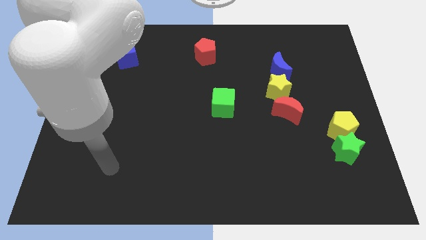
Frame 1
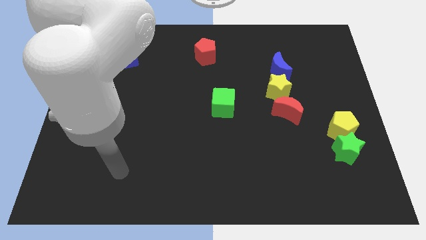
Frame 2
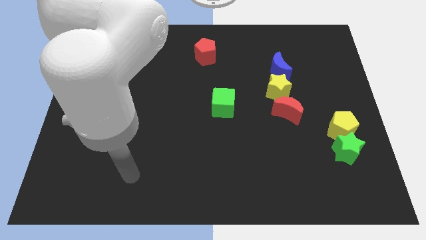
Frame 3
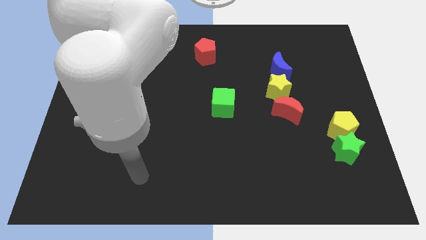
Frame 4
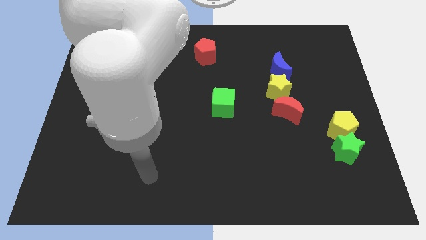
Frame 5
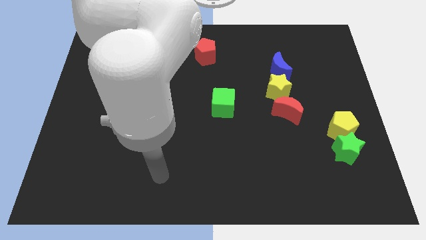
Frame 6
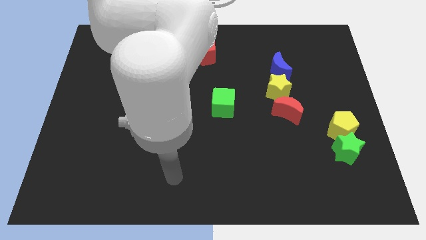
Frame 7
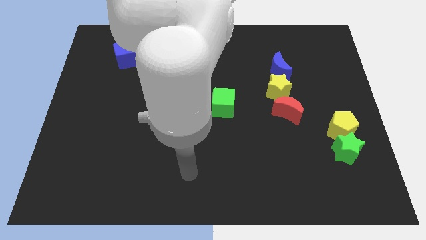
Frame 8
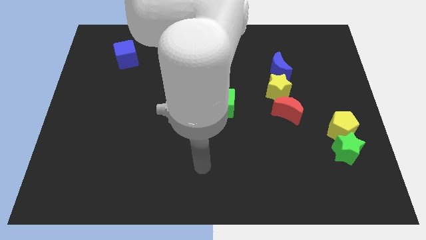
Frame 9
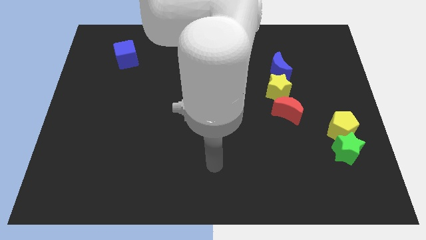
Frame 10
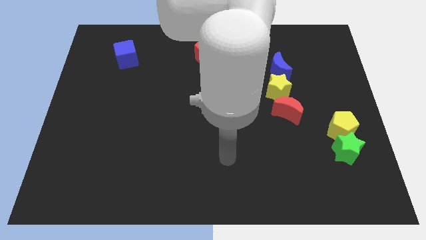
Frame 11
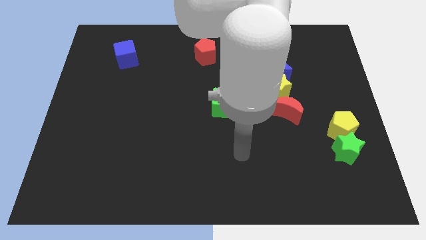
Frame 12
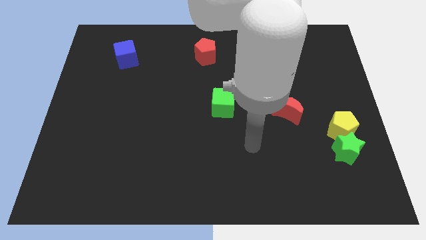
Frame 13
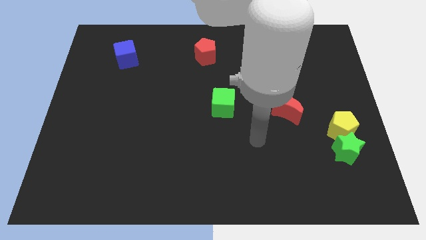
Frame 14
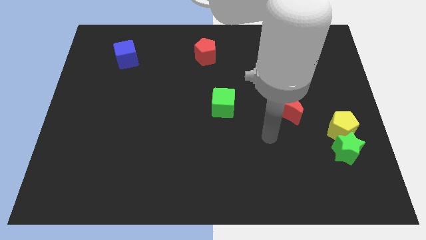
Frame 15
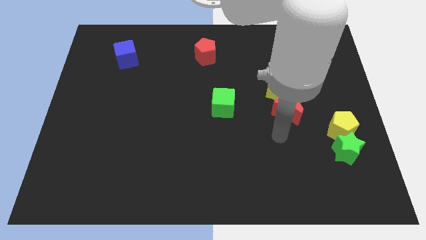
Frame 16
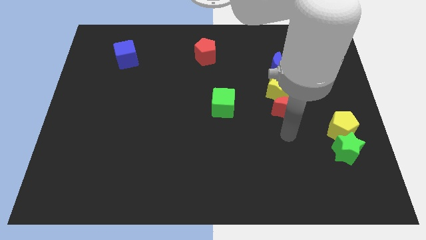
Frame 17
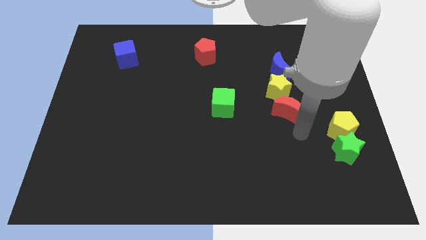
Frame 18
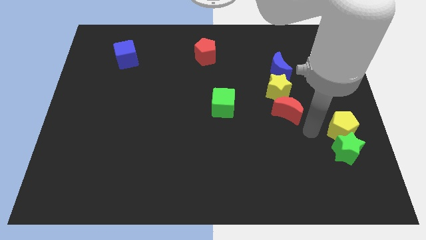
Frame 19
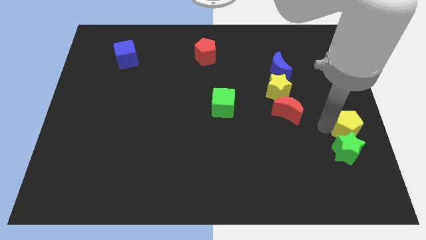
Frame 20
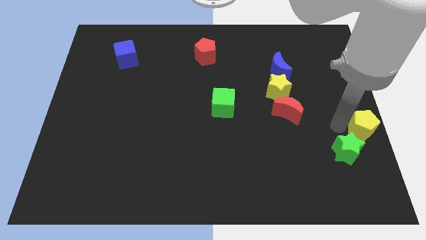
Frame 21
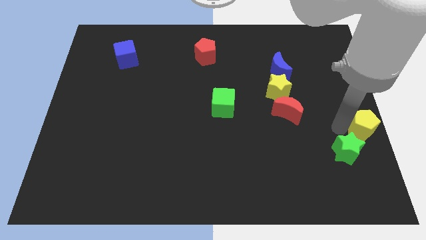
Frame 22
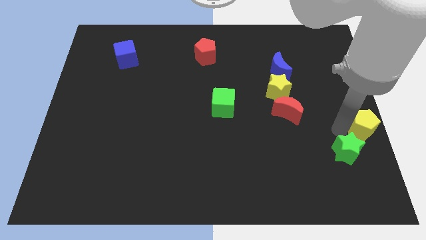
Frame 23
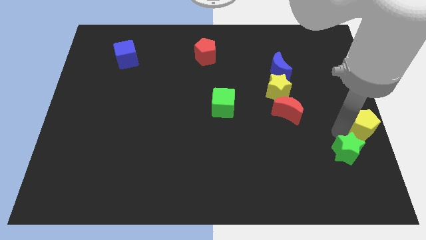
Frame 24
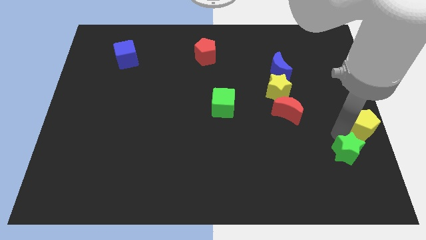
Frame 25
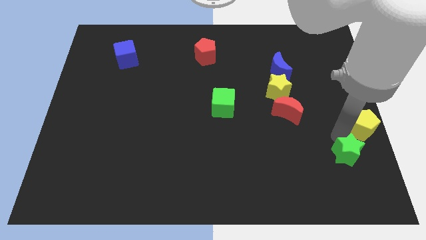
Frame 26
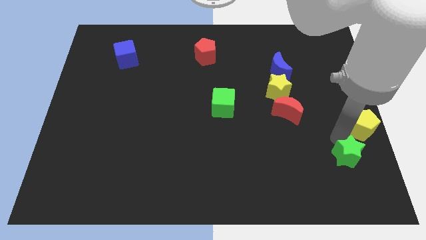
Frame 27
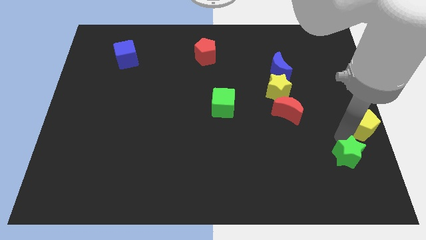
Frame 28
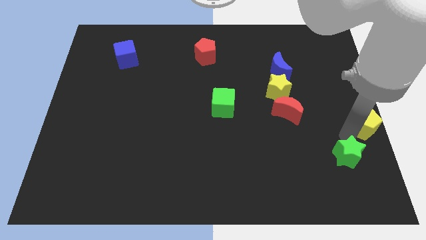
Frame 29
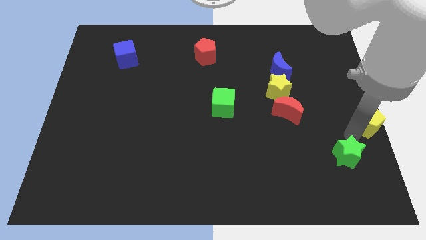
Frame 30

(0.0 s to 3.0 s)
pull the green star apart from the yellow pentagon

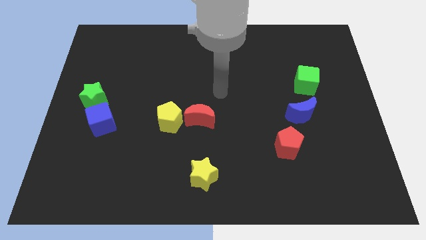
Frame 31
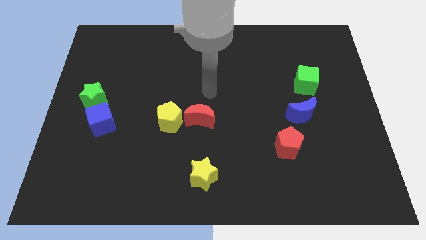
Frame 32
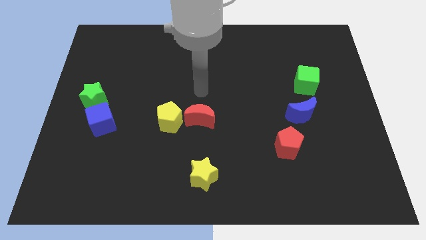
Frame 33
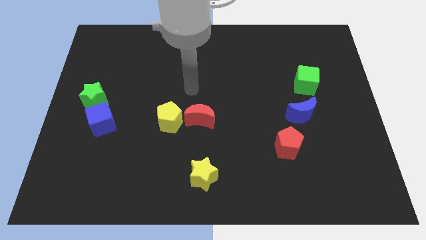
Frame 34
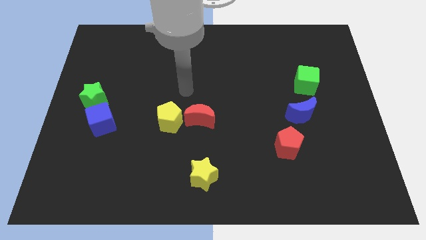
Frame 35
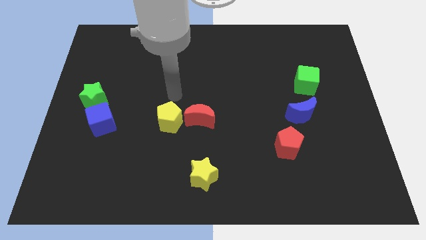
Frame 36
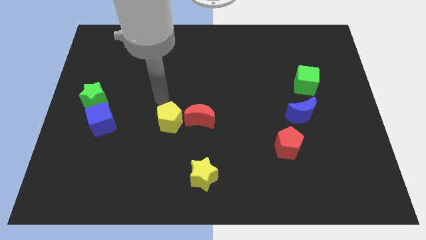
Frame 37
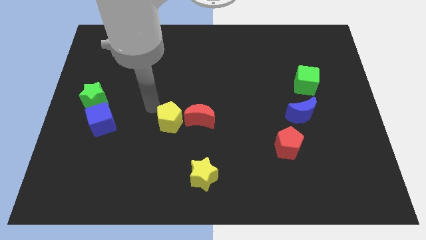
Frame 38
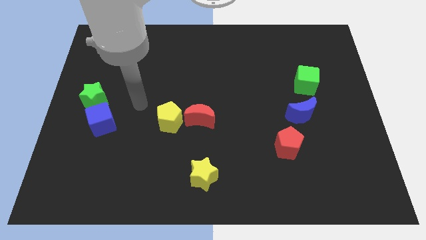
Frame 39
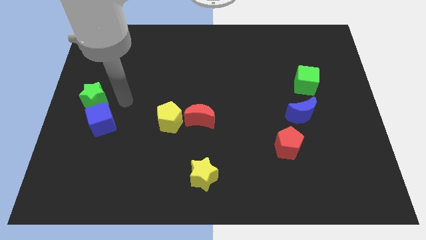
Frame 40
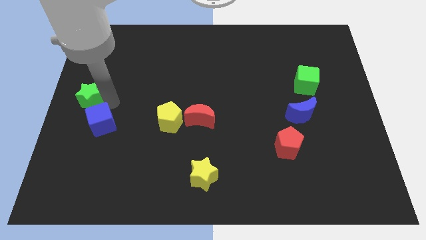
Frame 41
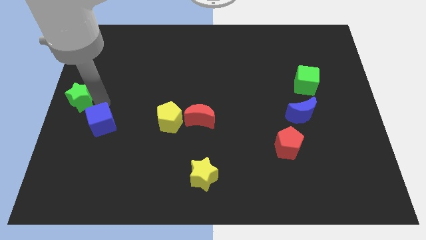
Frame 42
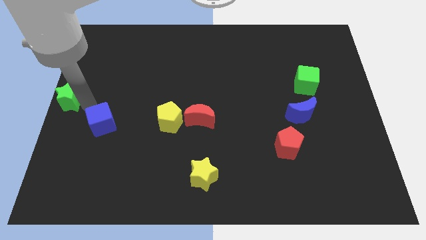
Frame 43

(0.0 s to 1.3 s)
pull the blue cube apart from the green star

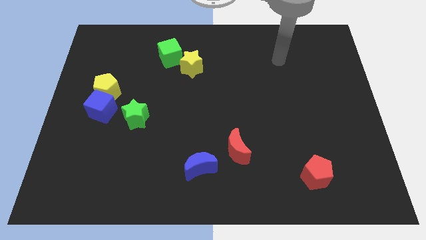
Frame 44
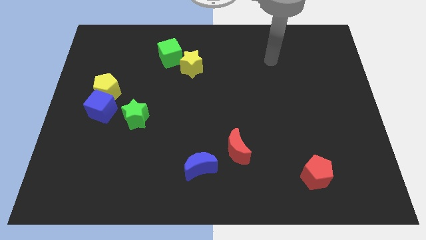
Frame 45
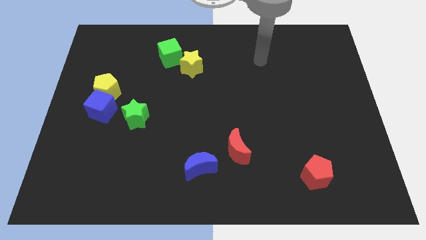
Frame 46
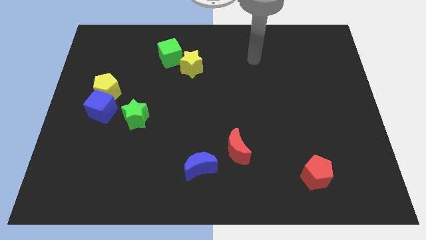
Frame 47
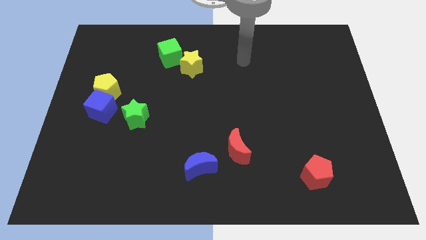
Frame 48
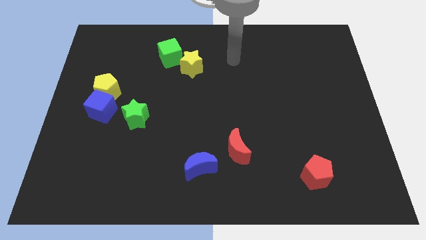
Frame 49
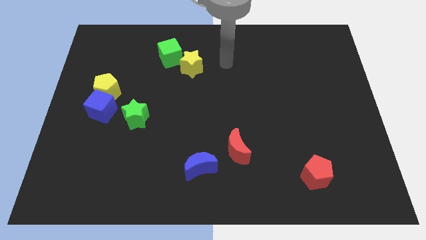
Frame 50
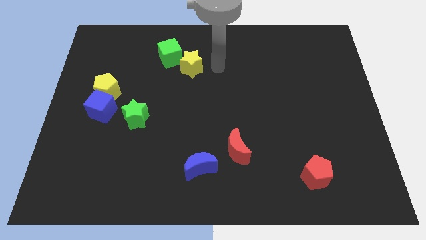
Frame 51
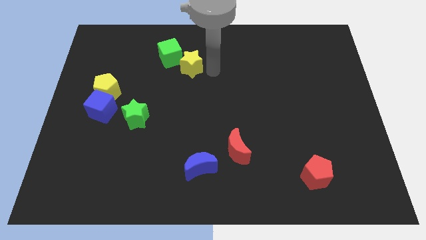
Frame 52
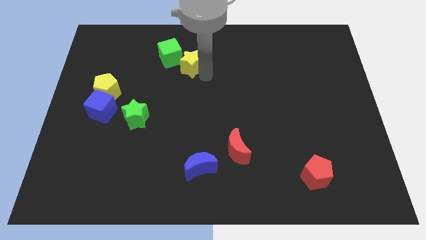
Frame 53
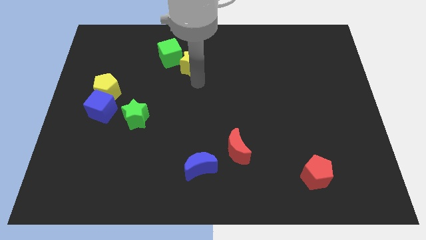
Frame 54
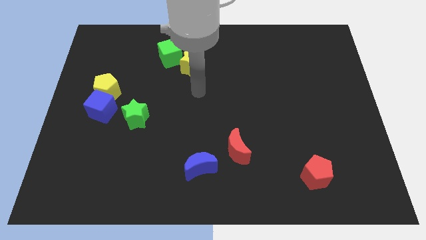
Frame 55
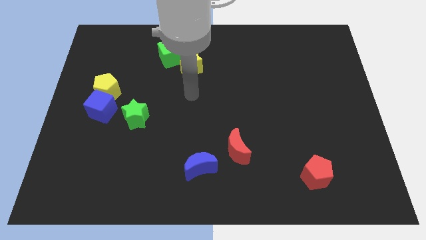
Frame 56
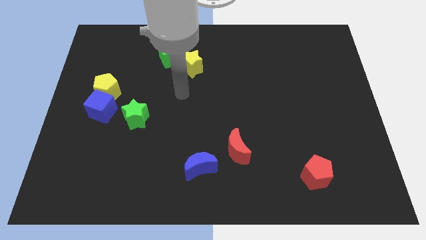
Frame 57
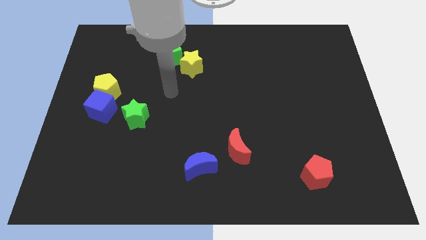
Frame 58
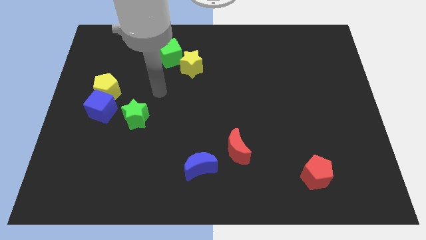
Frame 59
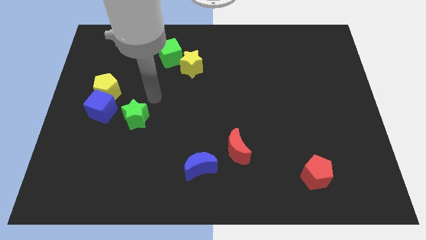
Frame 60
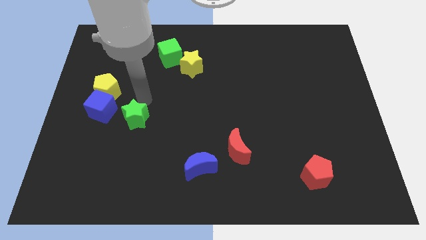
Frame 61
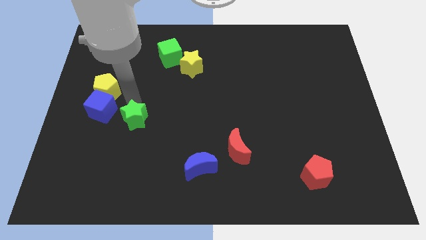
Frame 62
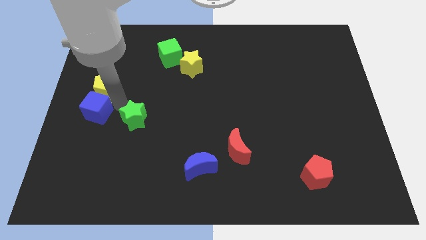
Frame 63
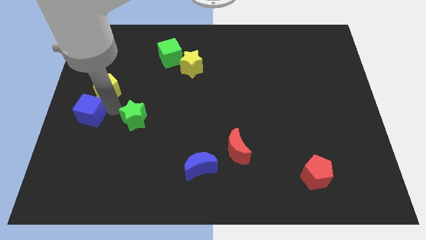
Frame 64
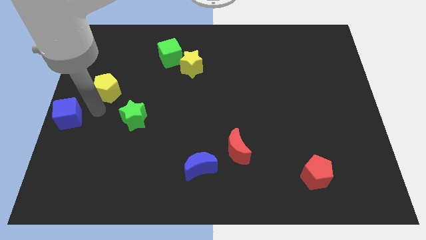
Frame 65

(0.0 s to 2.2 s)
separate the yellow pentagon from the blue cube

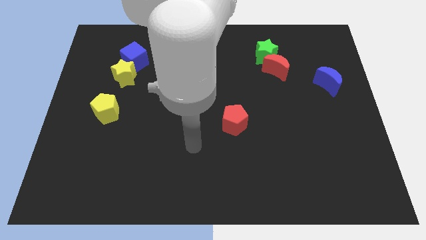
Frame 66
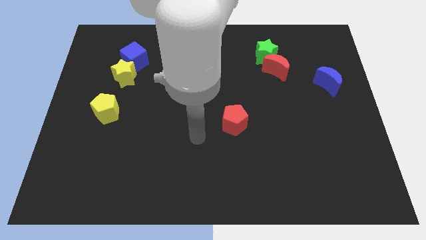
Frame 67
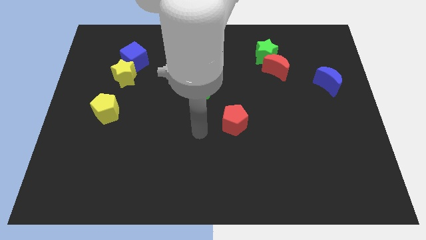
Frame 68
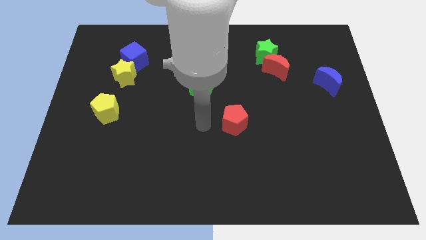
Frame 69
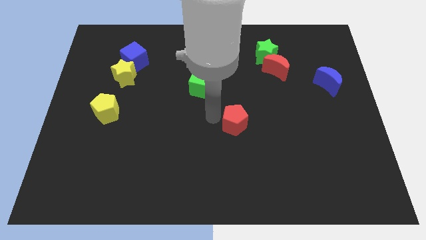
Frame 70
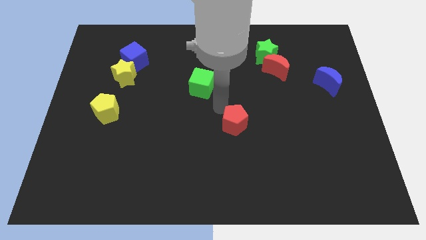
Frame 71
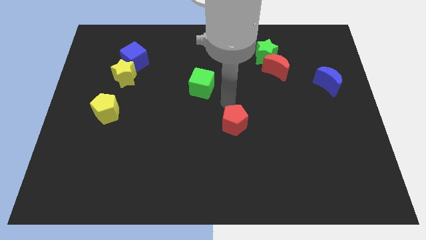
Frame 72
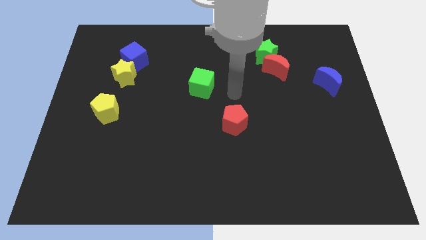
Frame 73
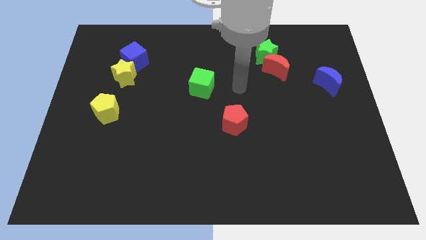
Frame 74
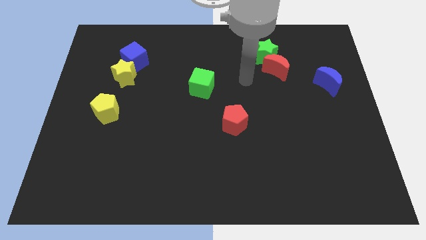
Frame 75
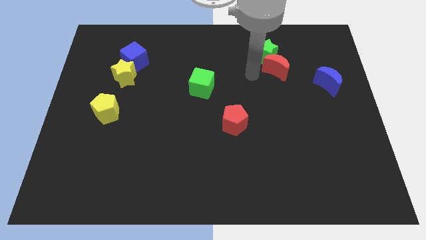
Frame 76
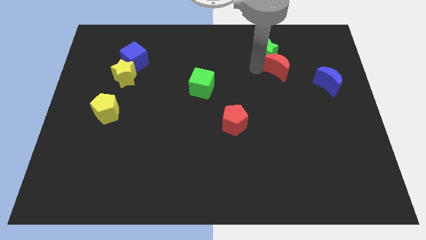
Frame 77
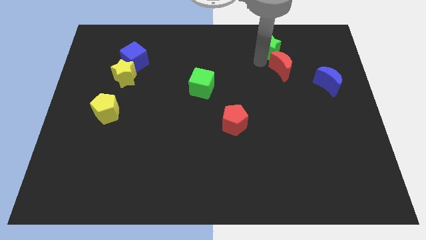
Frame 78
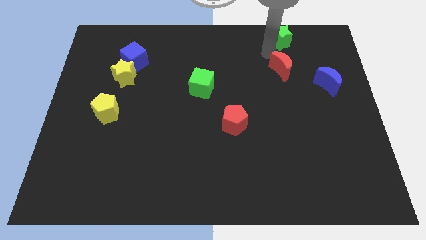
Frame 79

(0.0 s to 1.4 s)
move the red moon away from the green star

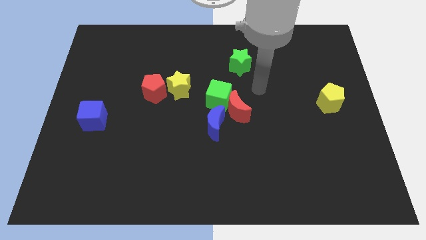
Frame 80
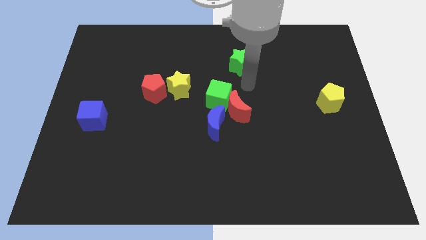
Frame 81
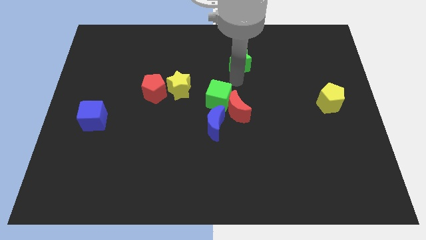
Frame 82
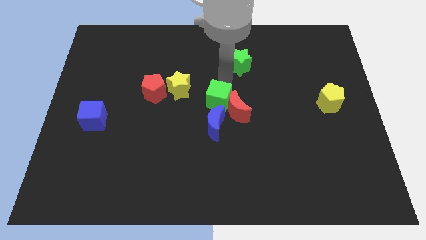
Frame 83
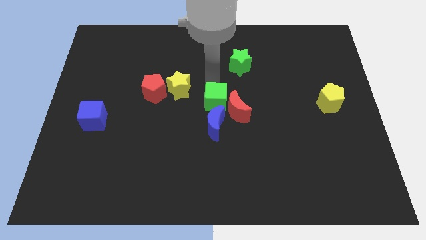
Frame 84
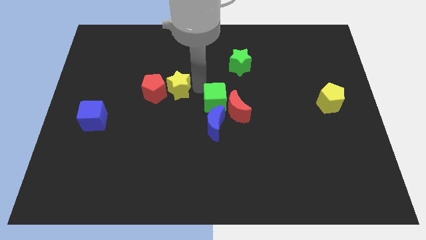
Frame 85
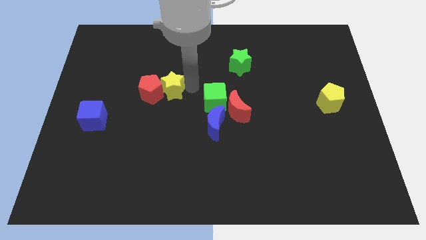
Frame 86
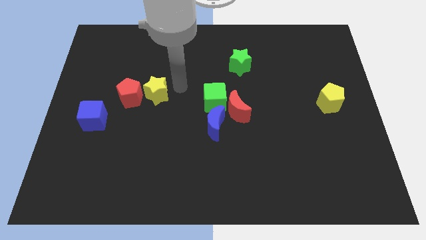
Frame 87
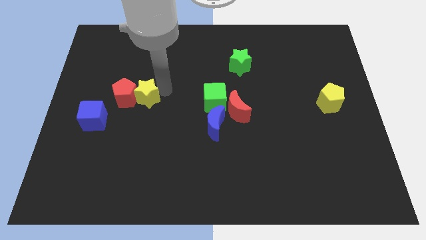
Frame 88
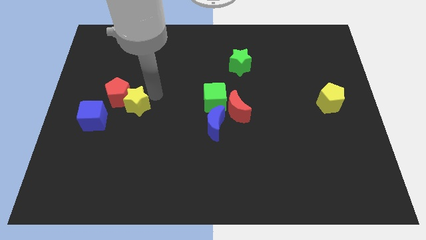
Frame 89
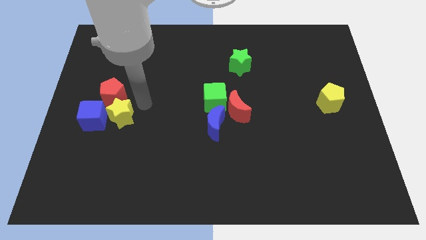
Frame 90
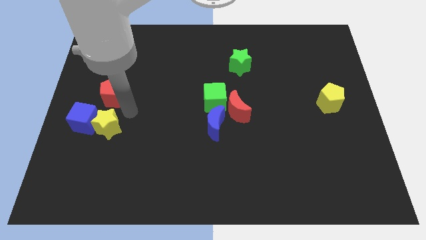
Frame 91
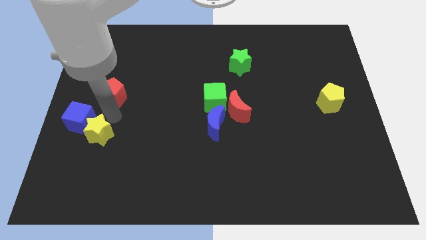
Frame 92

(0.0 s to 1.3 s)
move the red pentagon away from the yellow star

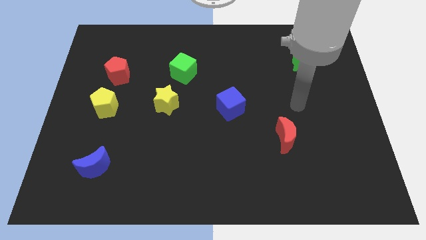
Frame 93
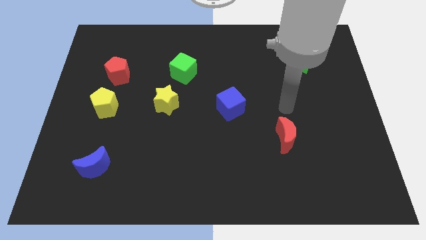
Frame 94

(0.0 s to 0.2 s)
pull the red pentagon apart from the yellow pentagon
